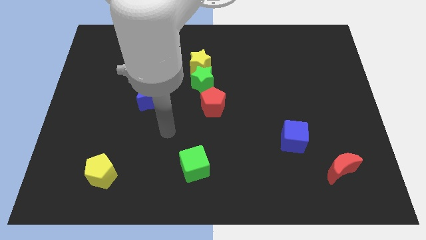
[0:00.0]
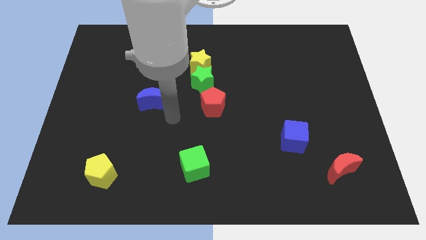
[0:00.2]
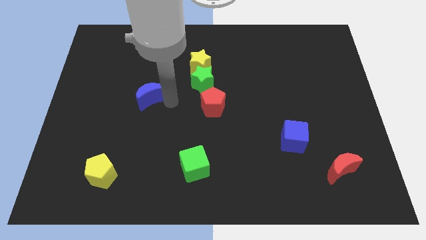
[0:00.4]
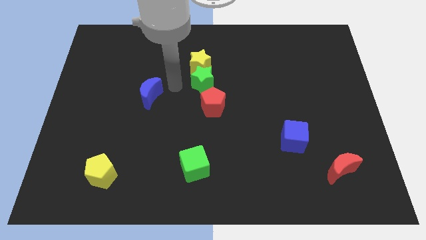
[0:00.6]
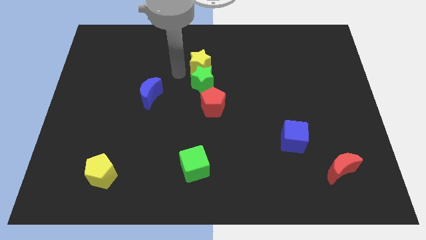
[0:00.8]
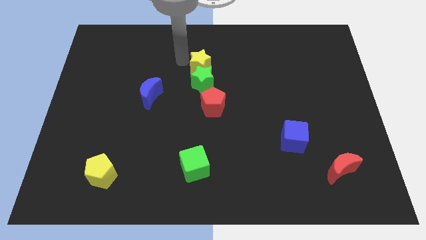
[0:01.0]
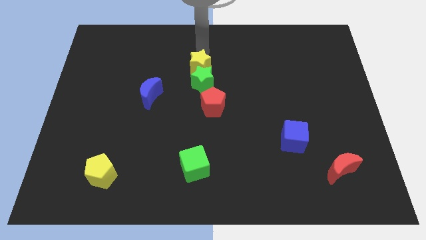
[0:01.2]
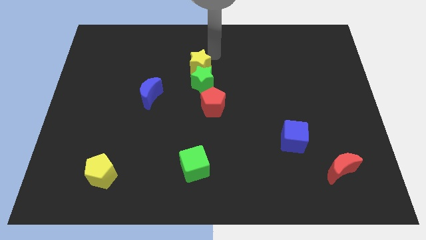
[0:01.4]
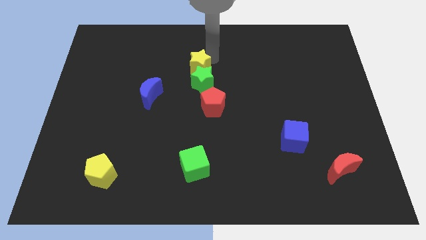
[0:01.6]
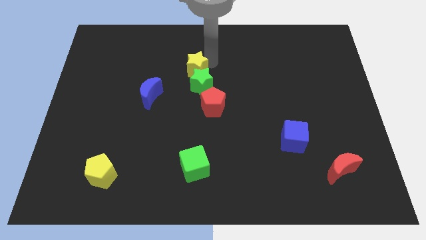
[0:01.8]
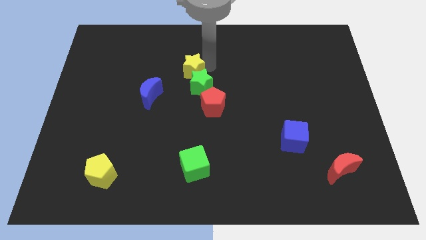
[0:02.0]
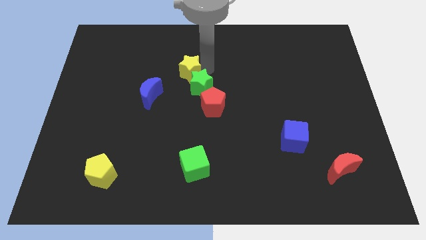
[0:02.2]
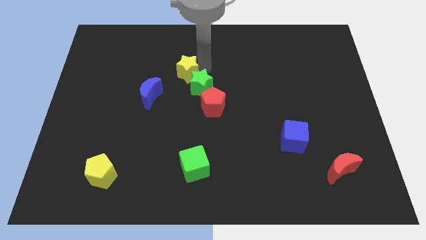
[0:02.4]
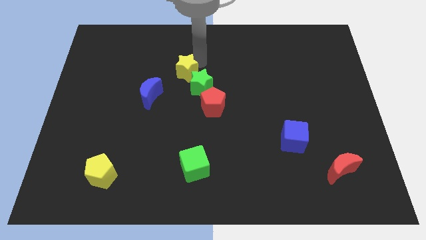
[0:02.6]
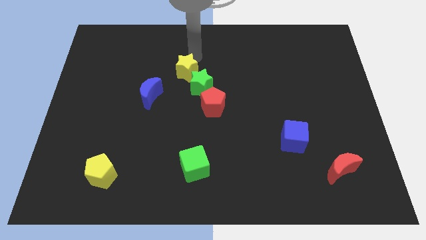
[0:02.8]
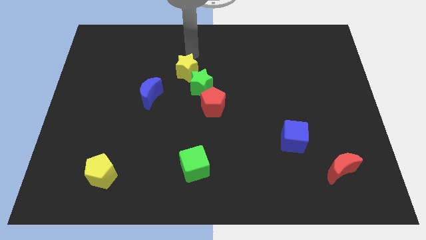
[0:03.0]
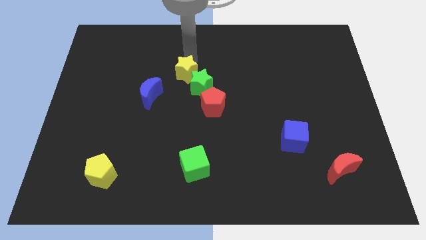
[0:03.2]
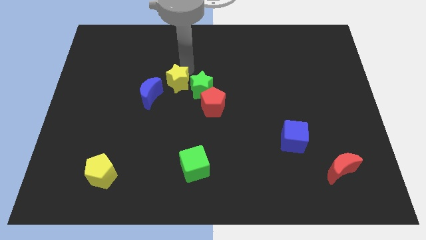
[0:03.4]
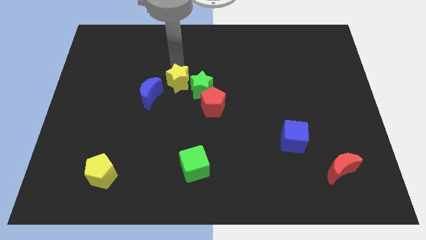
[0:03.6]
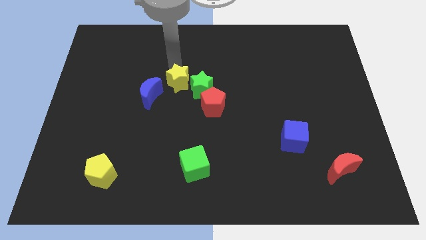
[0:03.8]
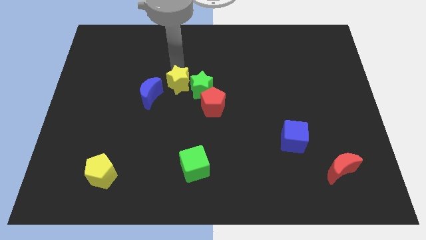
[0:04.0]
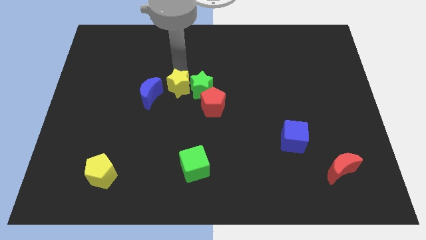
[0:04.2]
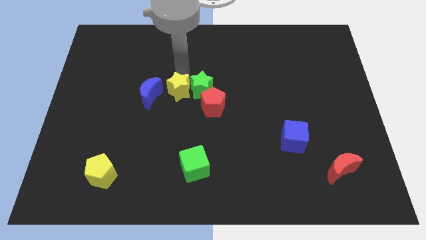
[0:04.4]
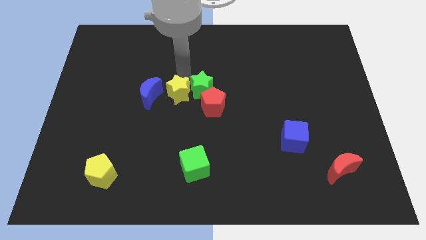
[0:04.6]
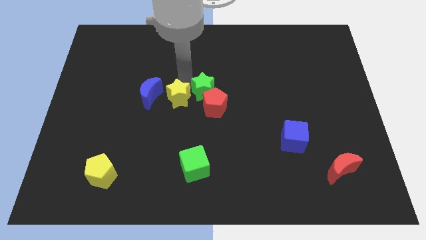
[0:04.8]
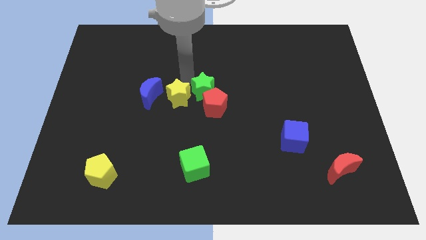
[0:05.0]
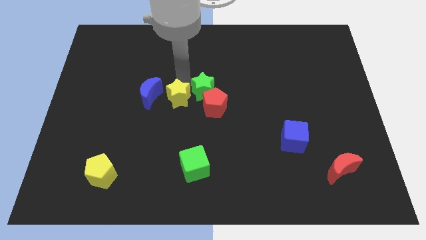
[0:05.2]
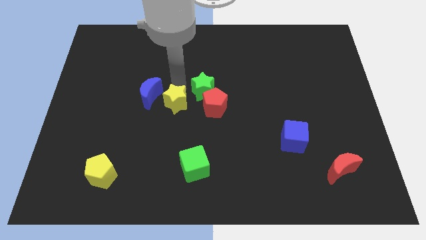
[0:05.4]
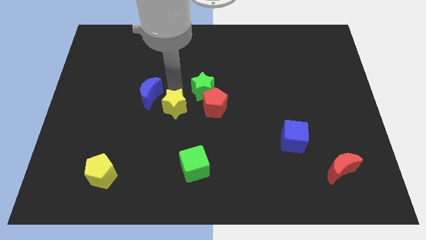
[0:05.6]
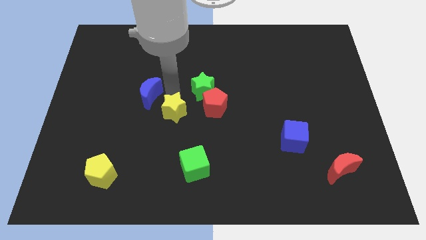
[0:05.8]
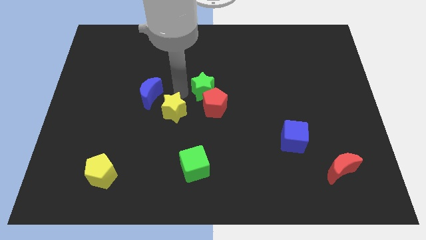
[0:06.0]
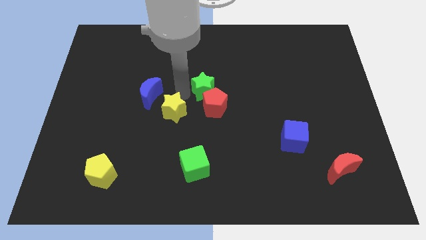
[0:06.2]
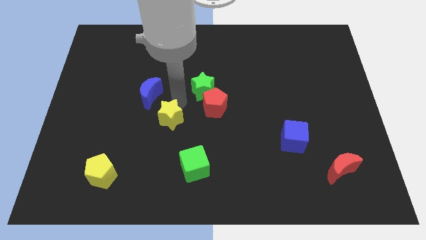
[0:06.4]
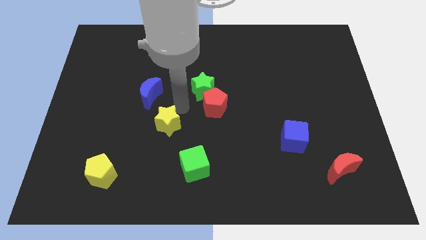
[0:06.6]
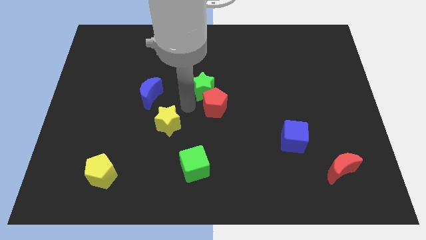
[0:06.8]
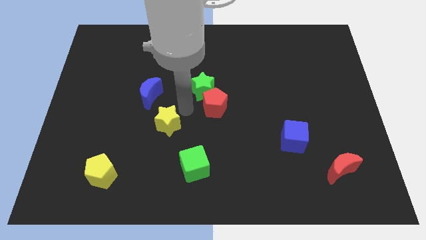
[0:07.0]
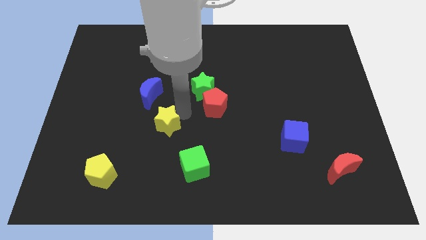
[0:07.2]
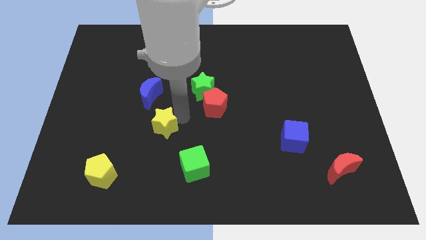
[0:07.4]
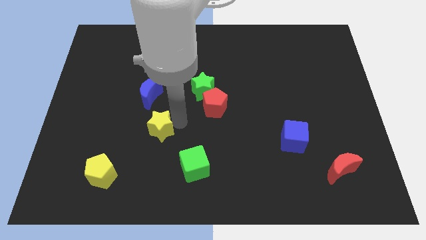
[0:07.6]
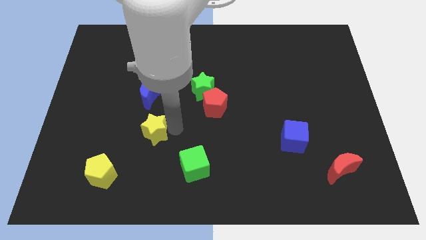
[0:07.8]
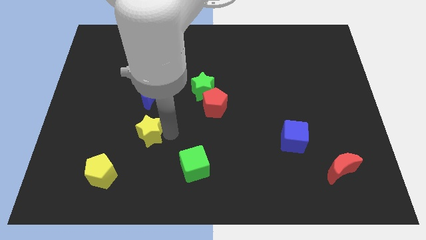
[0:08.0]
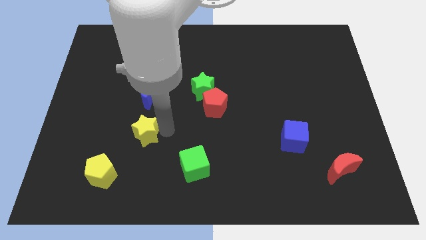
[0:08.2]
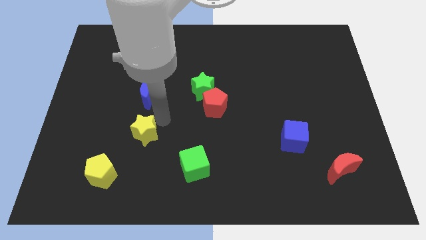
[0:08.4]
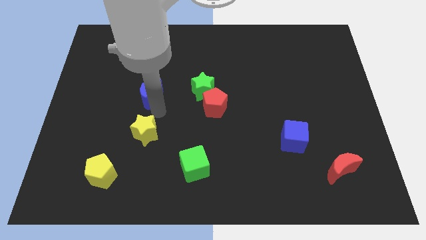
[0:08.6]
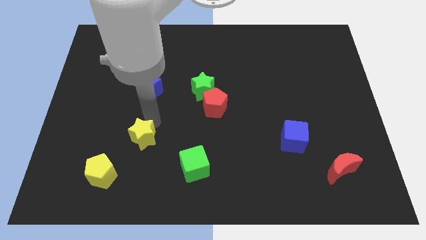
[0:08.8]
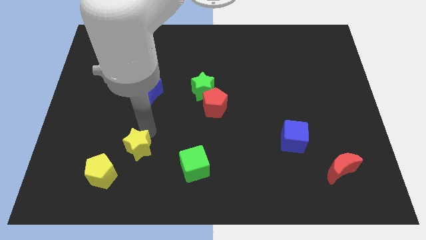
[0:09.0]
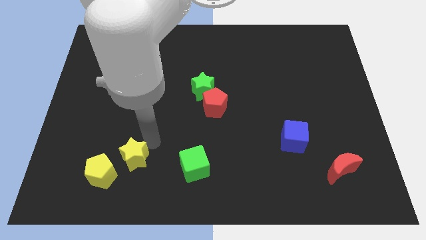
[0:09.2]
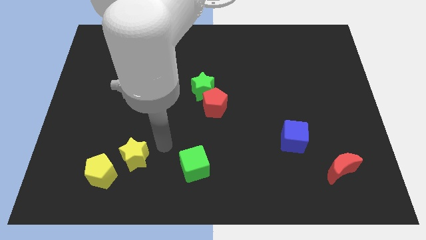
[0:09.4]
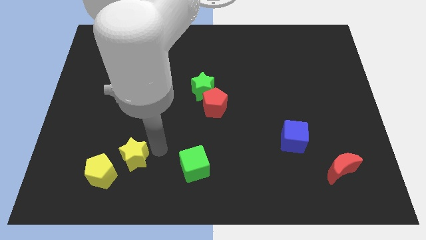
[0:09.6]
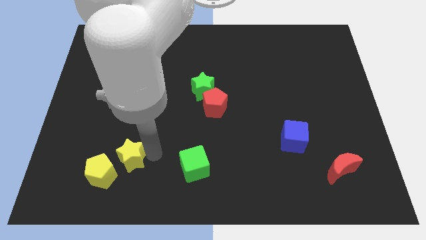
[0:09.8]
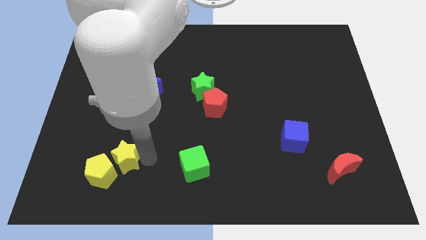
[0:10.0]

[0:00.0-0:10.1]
put the yellow star close to the yellow pentagon

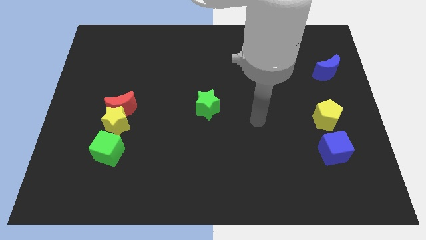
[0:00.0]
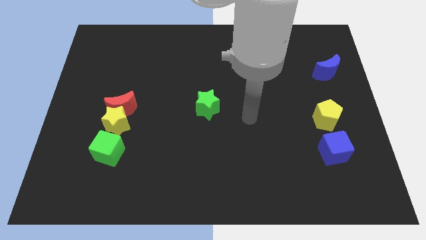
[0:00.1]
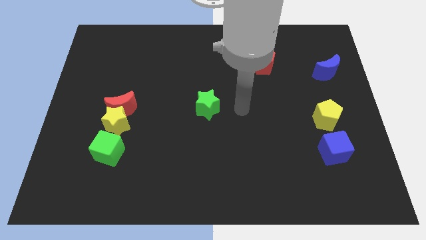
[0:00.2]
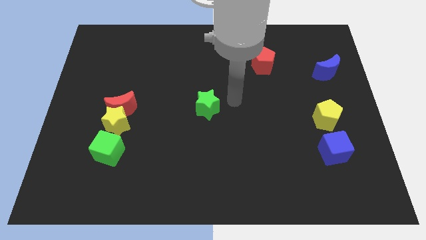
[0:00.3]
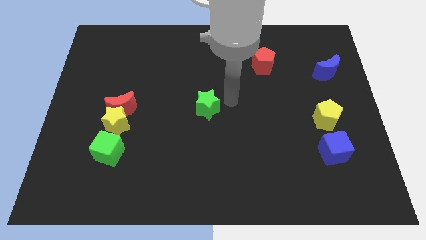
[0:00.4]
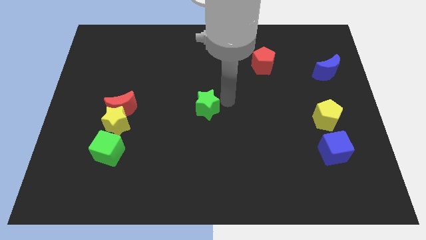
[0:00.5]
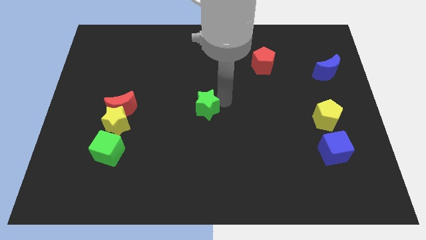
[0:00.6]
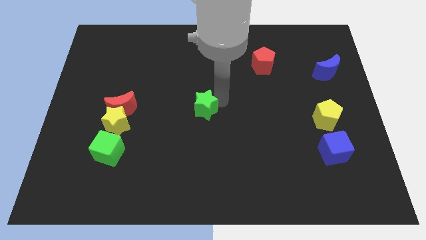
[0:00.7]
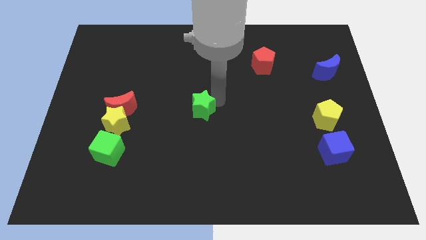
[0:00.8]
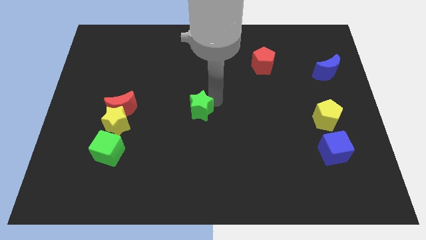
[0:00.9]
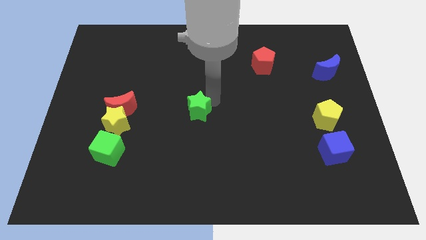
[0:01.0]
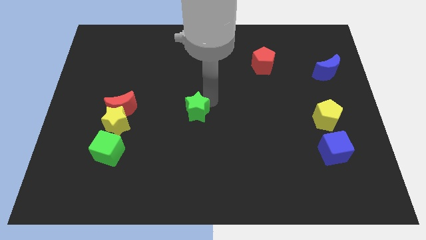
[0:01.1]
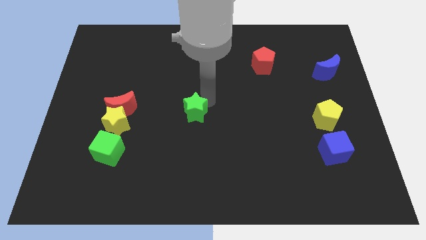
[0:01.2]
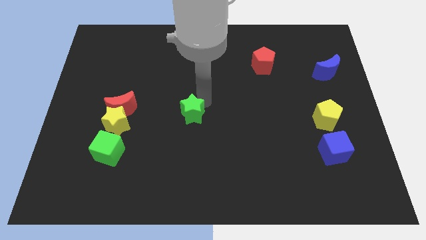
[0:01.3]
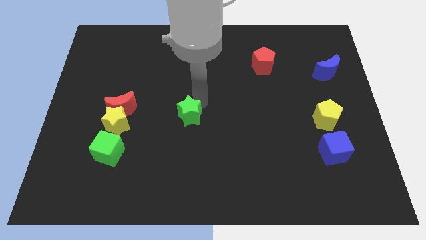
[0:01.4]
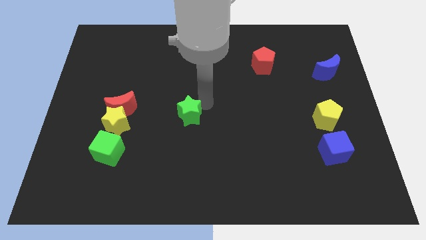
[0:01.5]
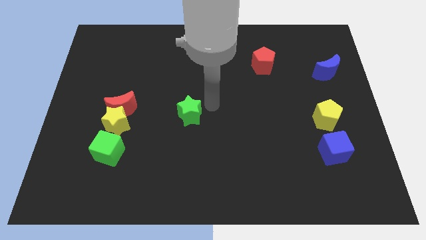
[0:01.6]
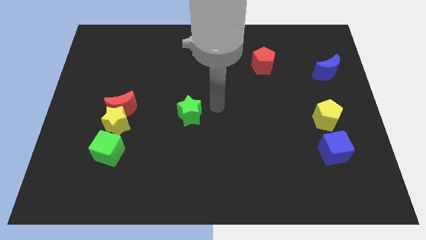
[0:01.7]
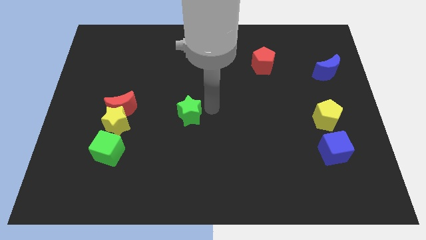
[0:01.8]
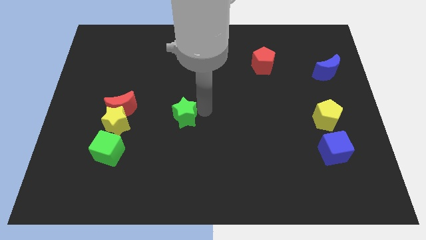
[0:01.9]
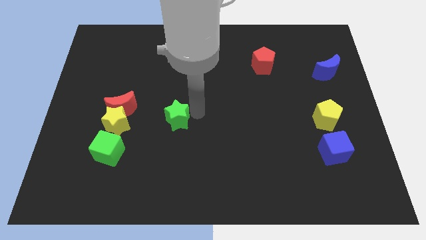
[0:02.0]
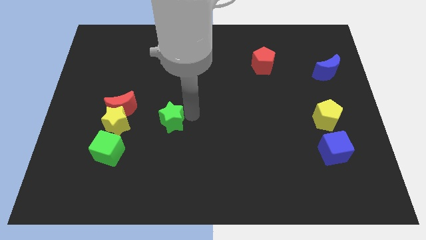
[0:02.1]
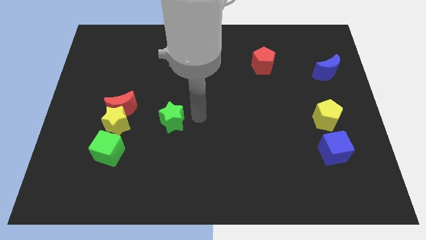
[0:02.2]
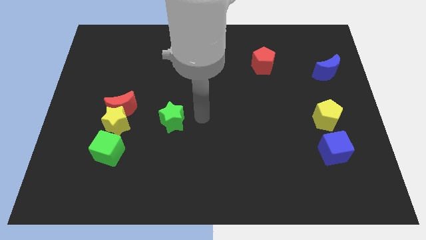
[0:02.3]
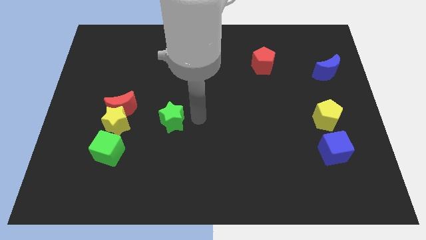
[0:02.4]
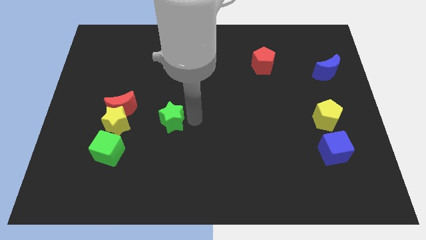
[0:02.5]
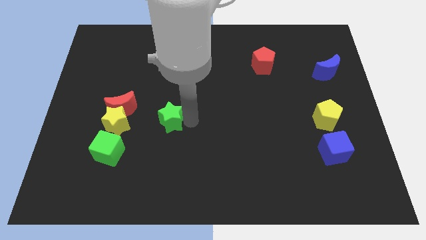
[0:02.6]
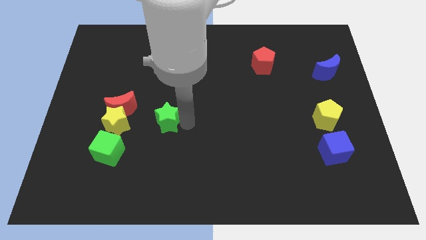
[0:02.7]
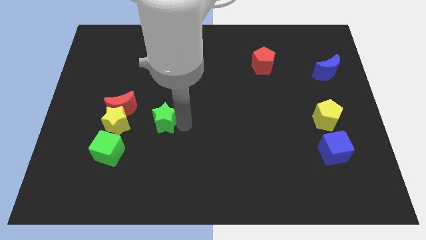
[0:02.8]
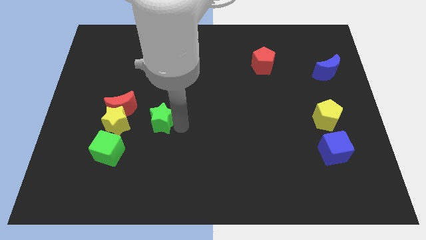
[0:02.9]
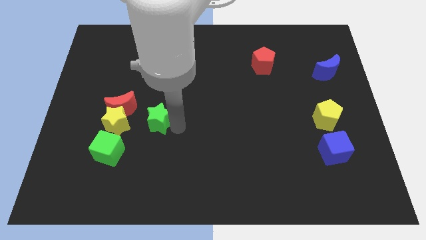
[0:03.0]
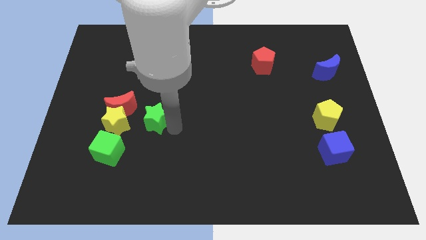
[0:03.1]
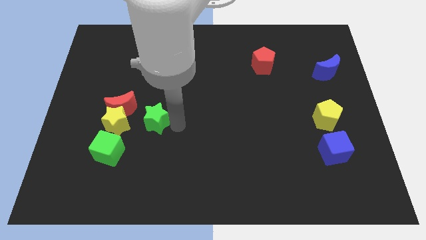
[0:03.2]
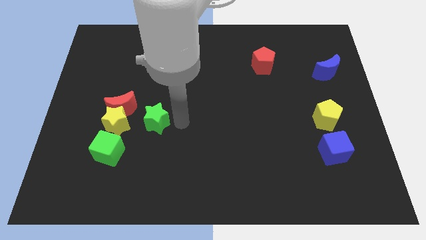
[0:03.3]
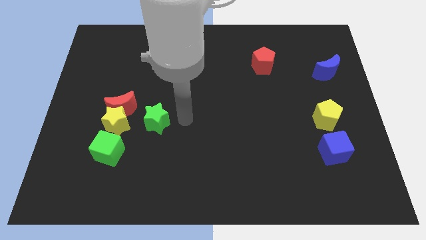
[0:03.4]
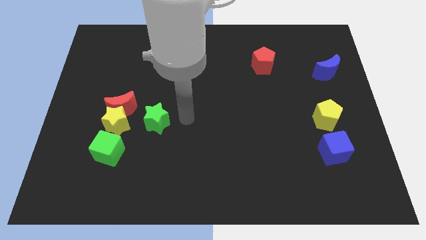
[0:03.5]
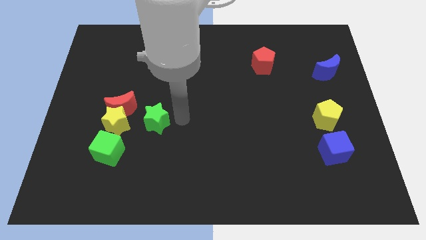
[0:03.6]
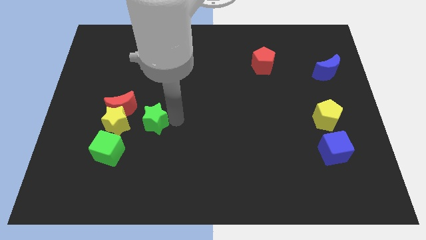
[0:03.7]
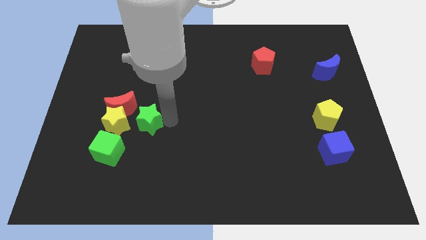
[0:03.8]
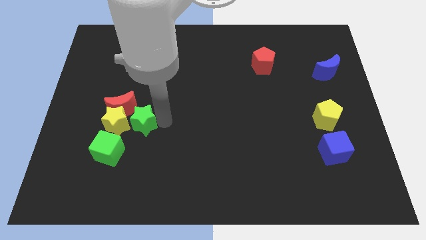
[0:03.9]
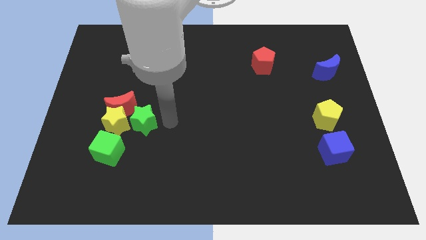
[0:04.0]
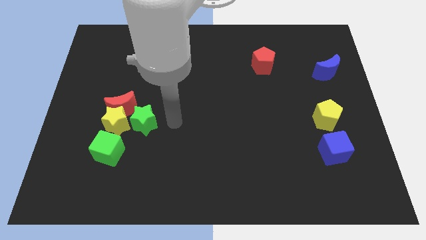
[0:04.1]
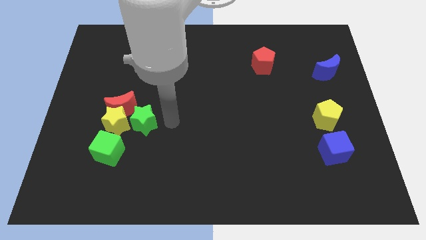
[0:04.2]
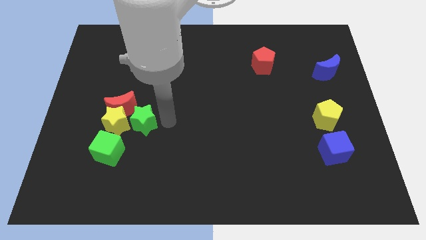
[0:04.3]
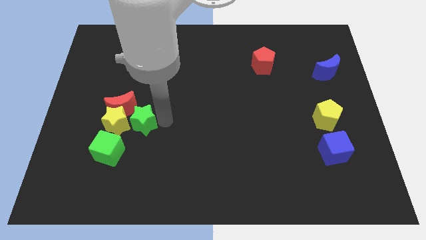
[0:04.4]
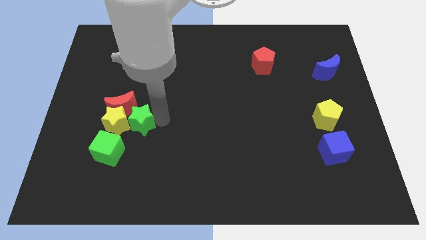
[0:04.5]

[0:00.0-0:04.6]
put the green star to the yellow star
